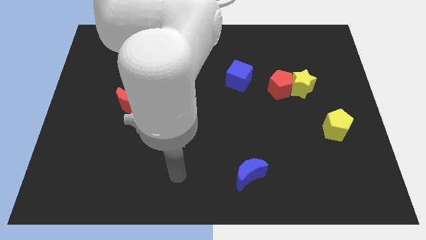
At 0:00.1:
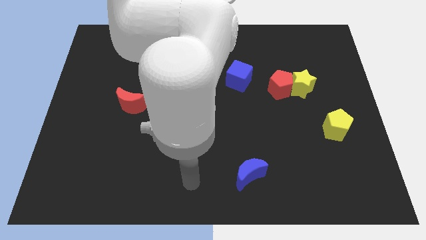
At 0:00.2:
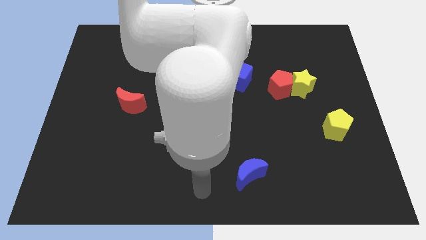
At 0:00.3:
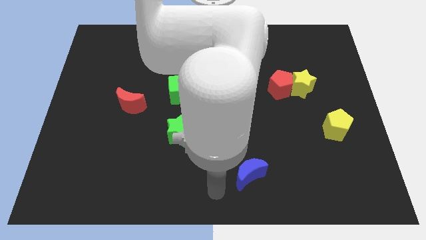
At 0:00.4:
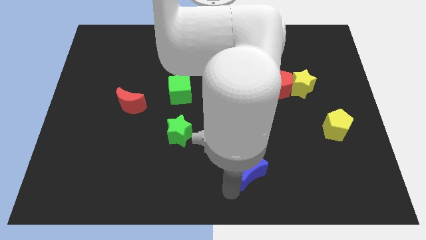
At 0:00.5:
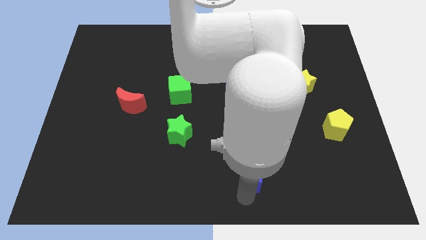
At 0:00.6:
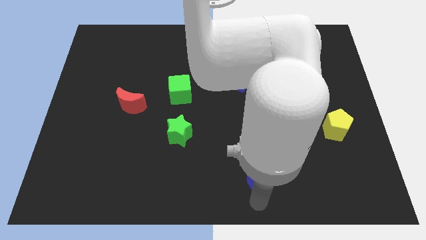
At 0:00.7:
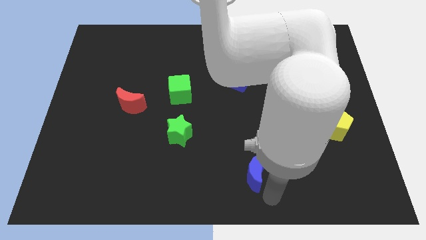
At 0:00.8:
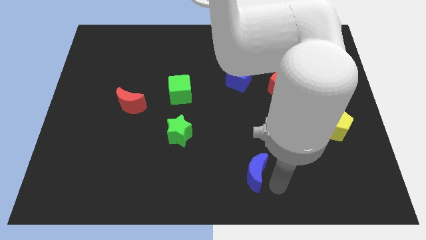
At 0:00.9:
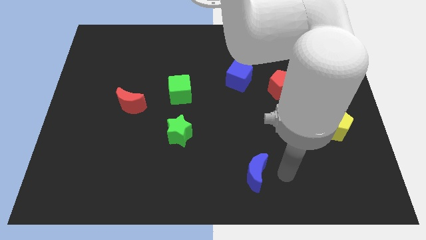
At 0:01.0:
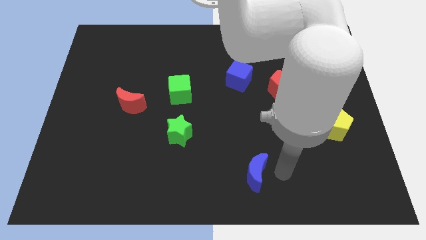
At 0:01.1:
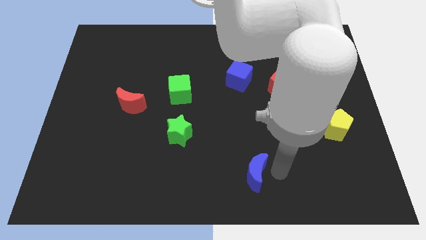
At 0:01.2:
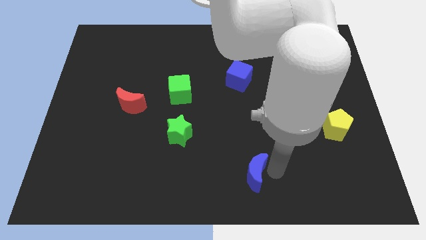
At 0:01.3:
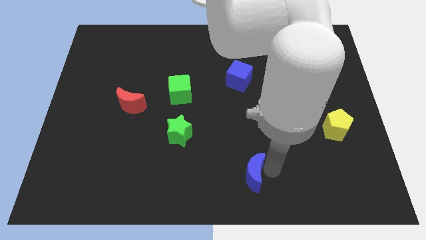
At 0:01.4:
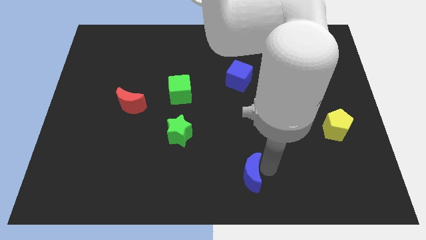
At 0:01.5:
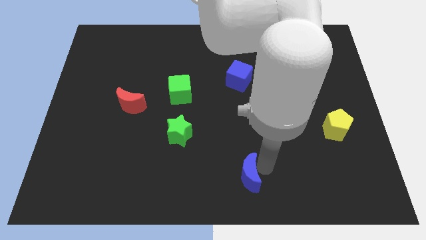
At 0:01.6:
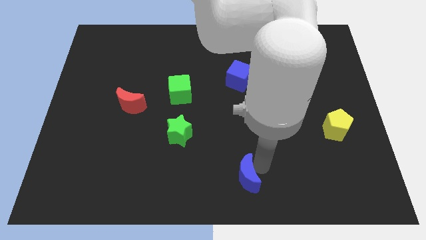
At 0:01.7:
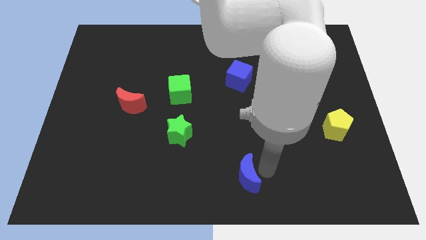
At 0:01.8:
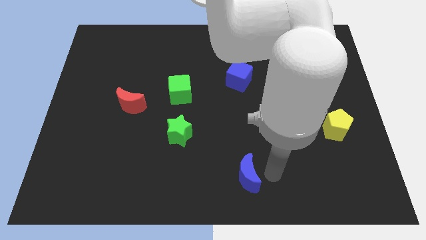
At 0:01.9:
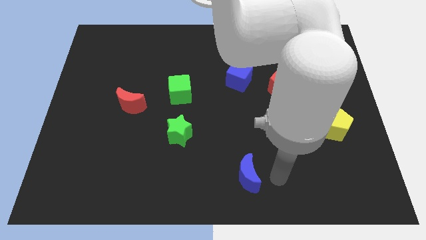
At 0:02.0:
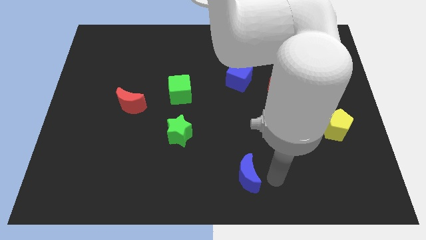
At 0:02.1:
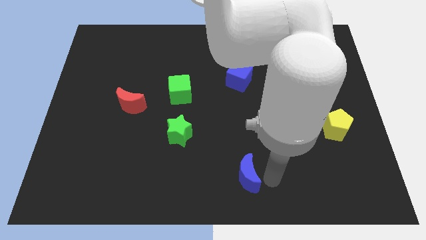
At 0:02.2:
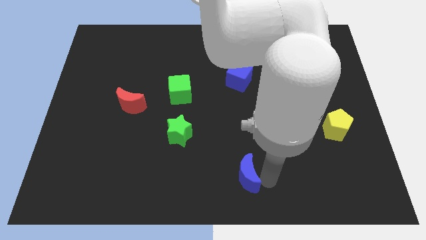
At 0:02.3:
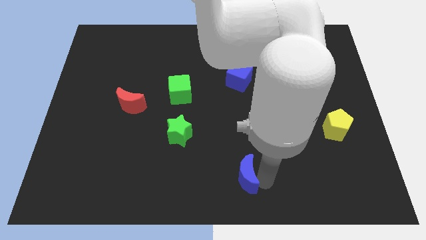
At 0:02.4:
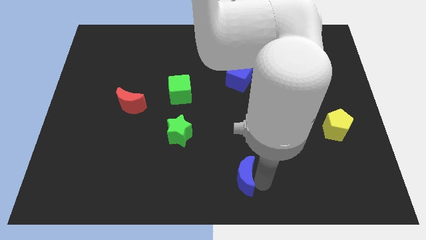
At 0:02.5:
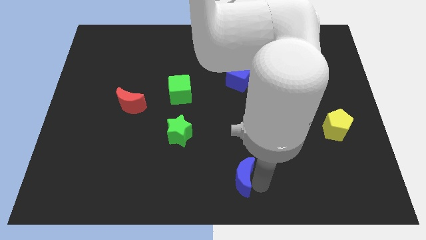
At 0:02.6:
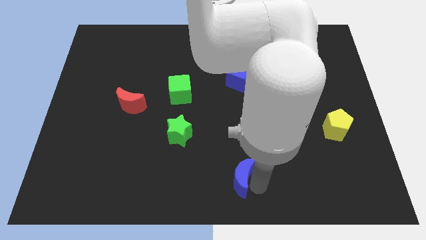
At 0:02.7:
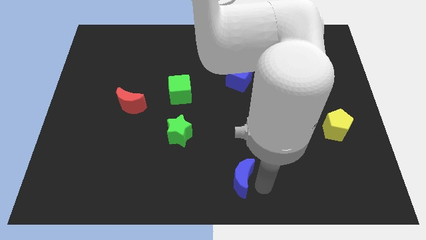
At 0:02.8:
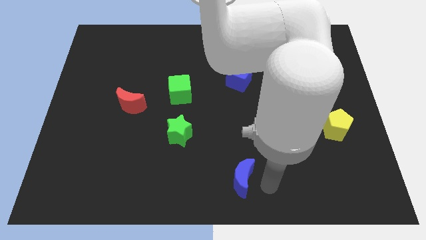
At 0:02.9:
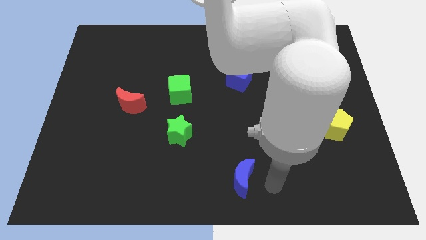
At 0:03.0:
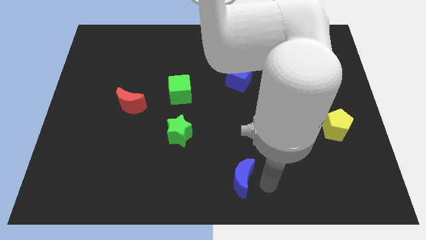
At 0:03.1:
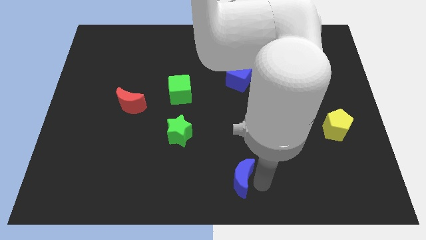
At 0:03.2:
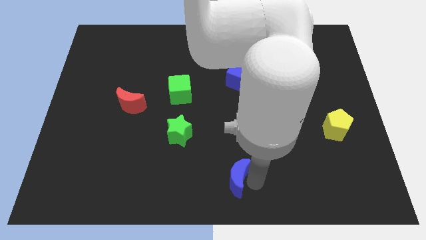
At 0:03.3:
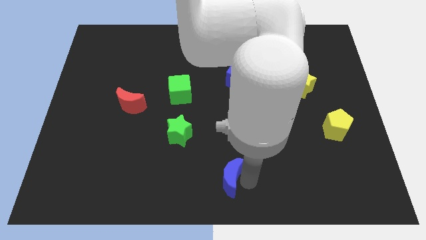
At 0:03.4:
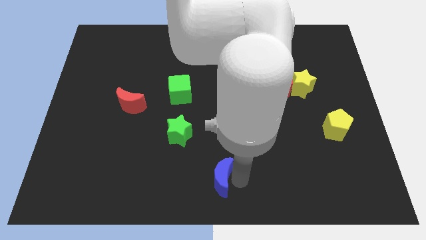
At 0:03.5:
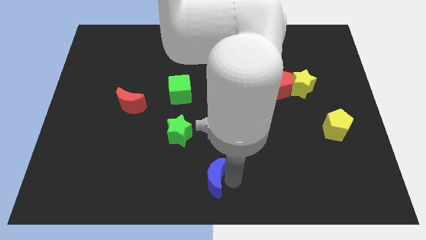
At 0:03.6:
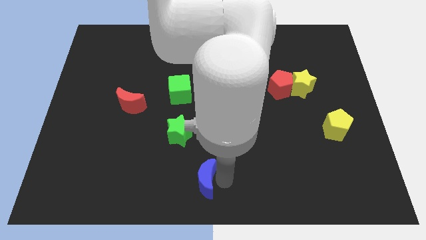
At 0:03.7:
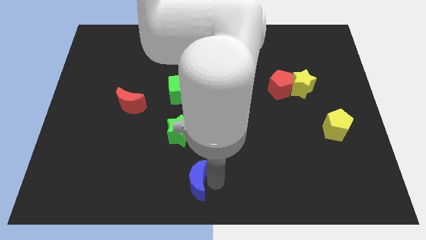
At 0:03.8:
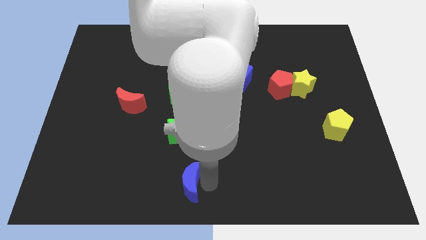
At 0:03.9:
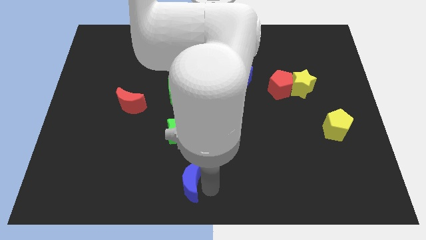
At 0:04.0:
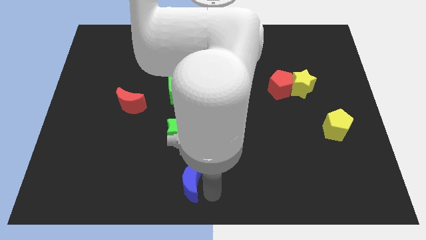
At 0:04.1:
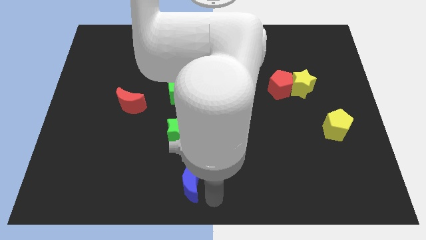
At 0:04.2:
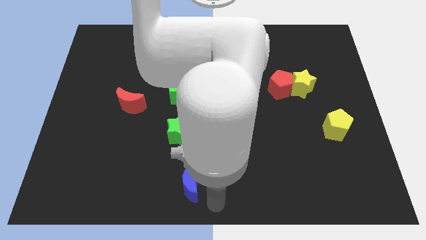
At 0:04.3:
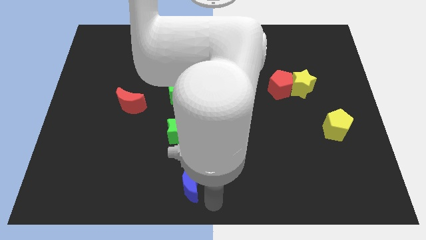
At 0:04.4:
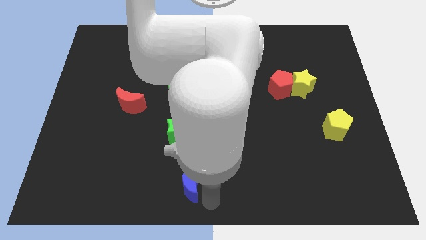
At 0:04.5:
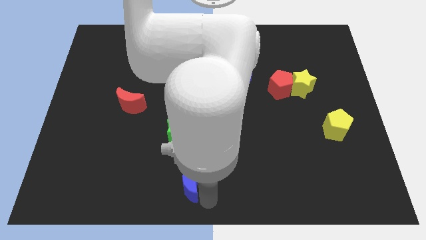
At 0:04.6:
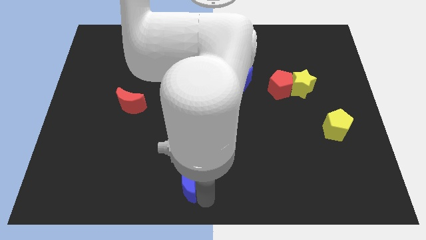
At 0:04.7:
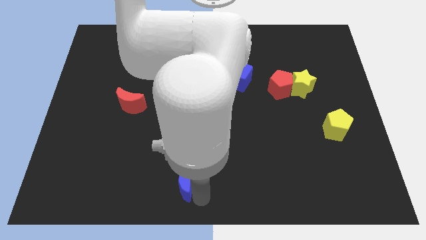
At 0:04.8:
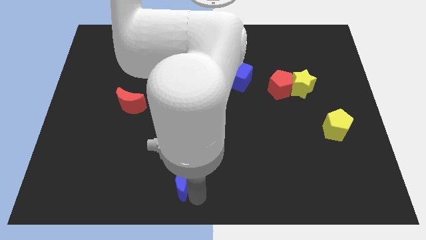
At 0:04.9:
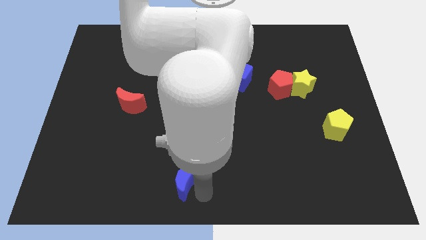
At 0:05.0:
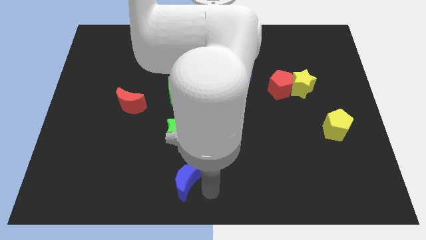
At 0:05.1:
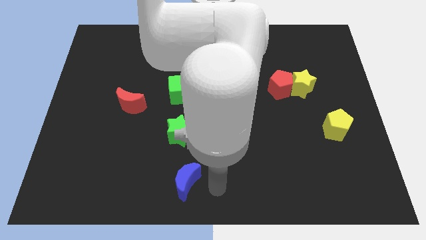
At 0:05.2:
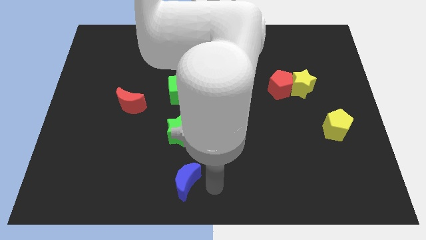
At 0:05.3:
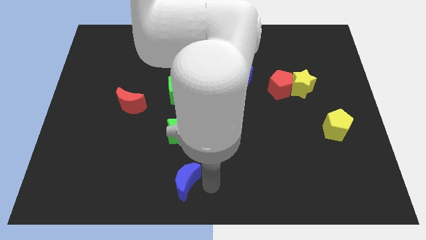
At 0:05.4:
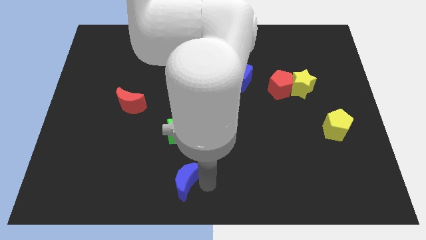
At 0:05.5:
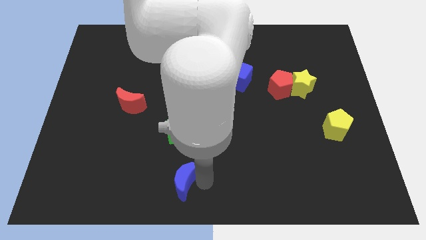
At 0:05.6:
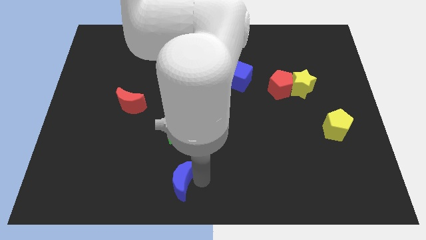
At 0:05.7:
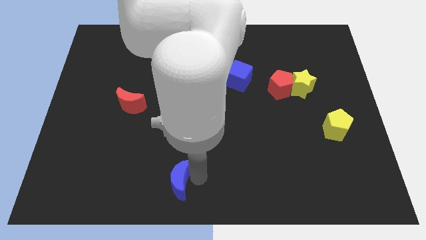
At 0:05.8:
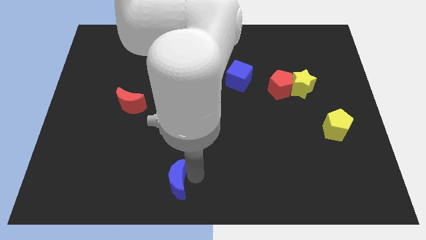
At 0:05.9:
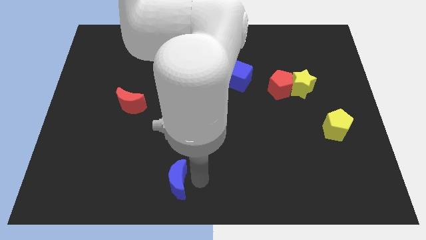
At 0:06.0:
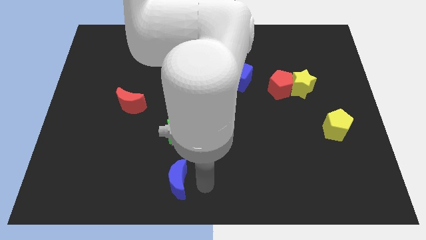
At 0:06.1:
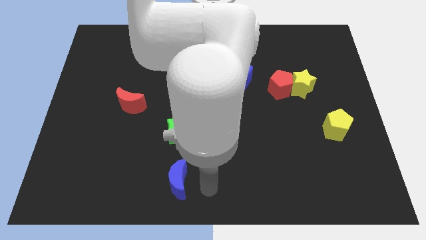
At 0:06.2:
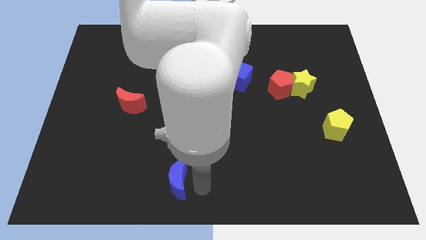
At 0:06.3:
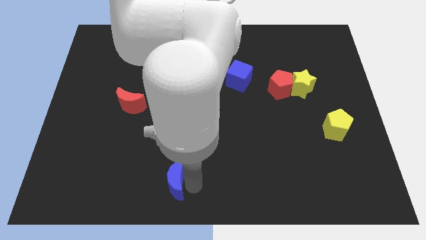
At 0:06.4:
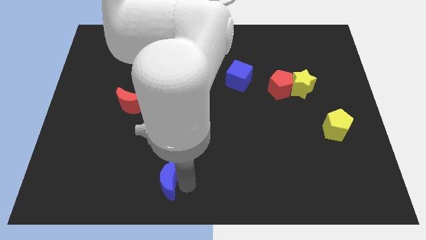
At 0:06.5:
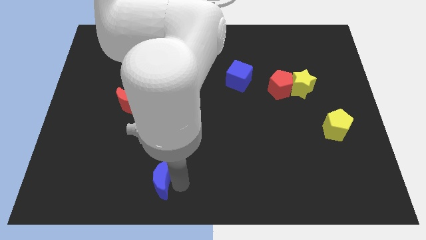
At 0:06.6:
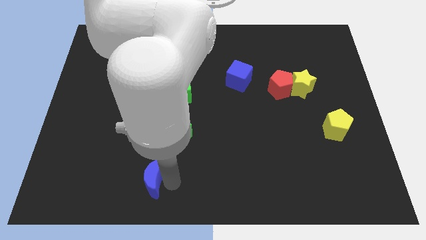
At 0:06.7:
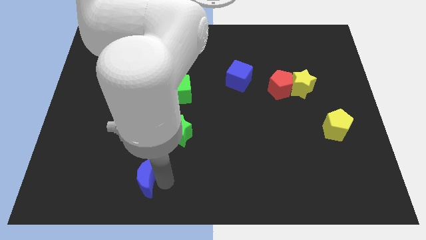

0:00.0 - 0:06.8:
push the blue moon to the left

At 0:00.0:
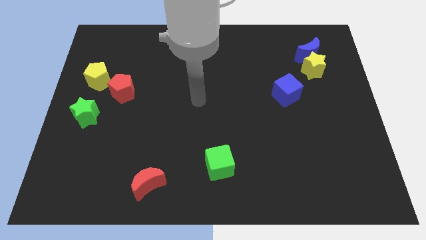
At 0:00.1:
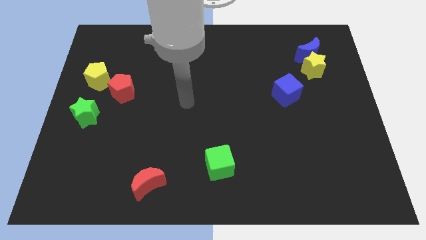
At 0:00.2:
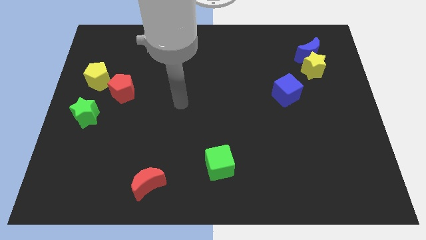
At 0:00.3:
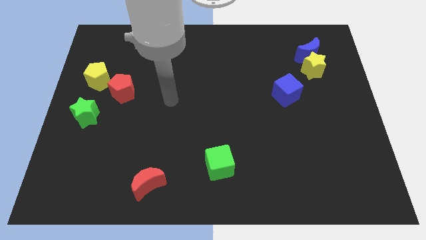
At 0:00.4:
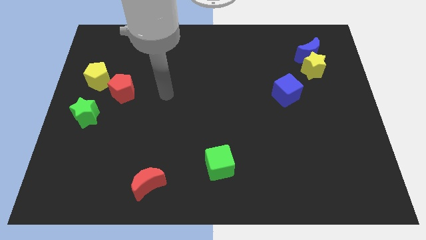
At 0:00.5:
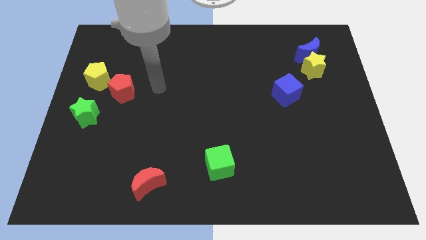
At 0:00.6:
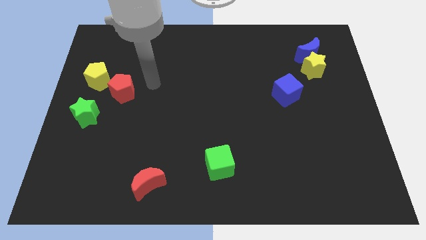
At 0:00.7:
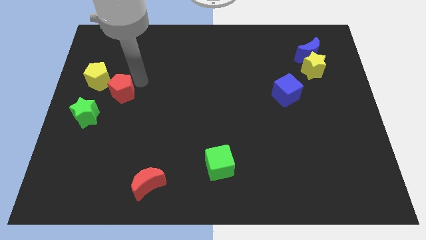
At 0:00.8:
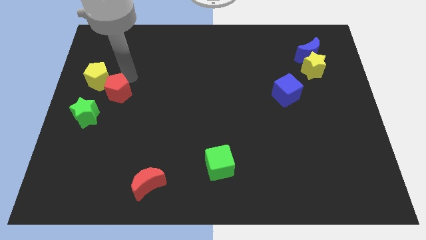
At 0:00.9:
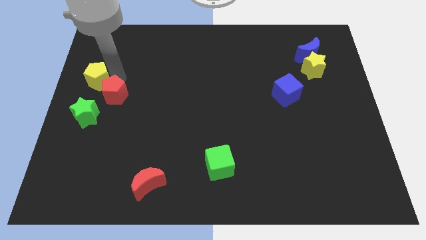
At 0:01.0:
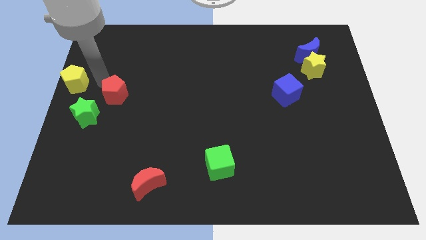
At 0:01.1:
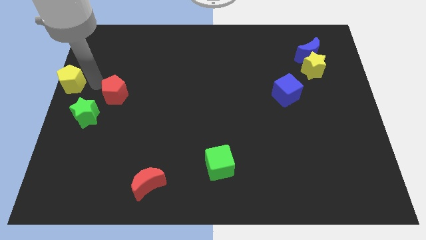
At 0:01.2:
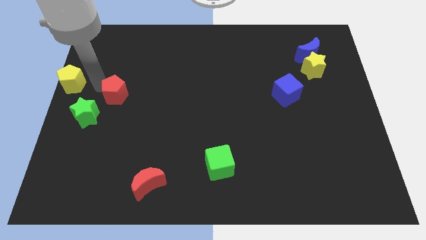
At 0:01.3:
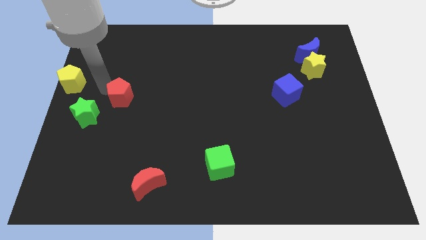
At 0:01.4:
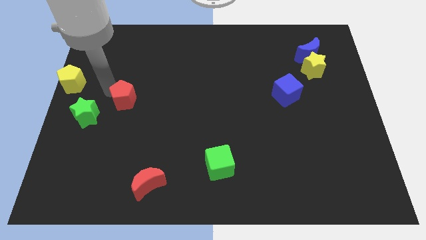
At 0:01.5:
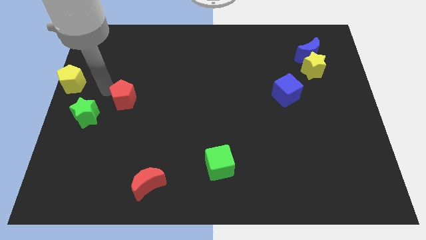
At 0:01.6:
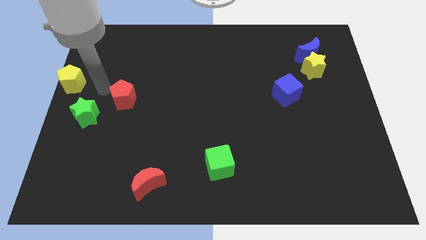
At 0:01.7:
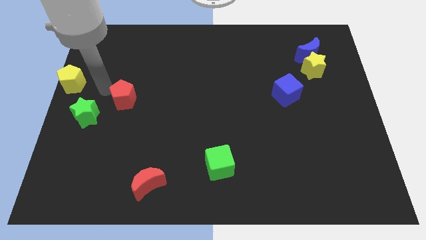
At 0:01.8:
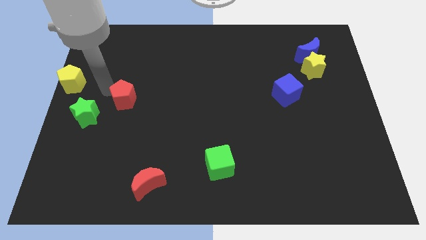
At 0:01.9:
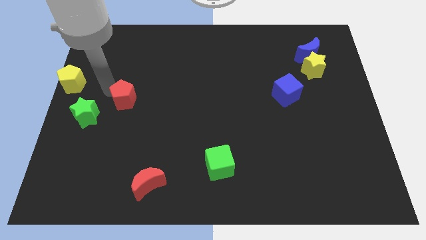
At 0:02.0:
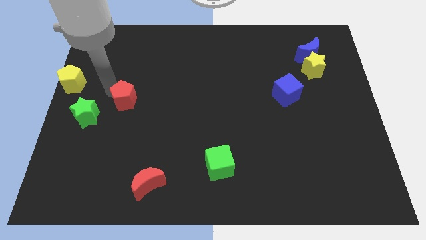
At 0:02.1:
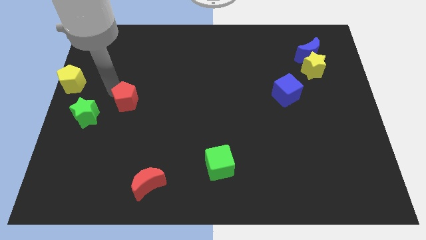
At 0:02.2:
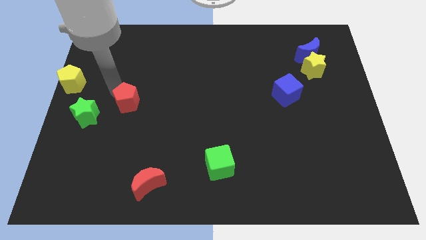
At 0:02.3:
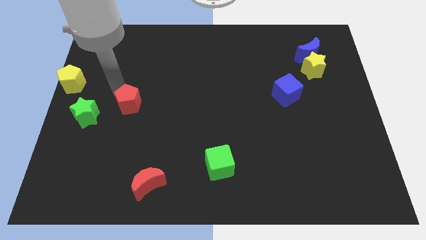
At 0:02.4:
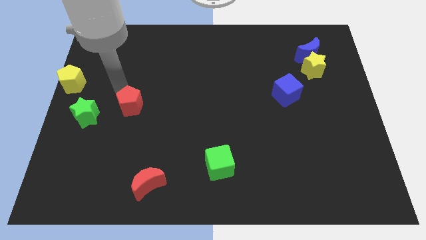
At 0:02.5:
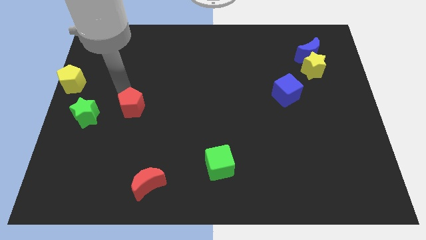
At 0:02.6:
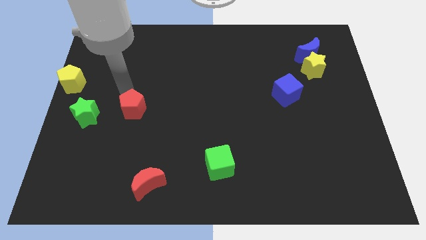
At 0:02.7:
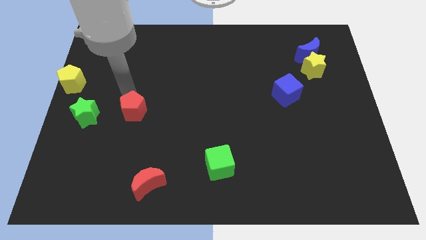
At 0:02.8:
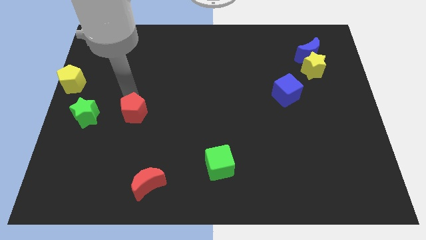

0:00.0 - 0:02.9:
slightly push the red pentagon downwards and then to the right
